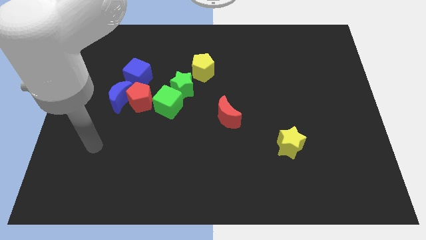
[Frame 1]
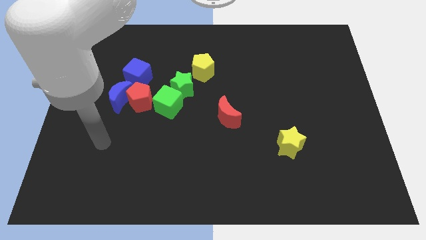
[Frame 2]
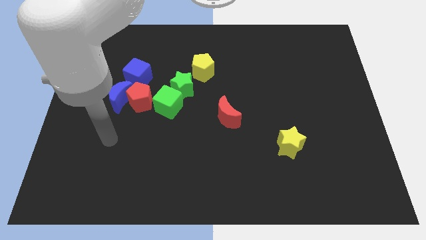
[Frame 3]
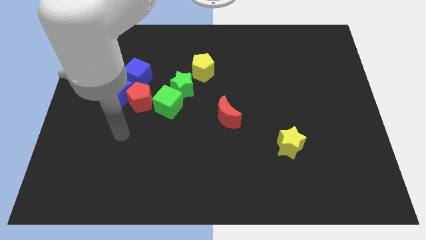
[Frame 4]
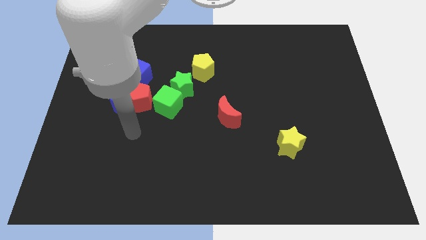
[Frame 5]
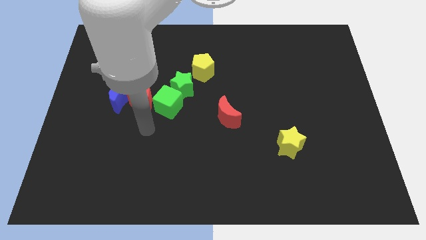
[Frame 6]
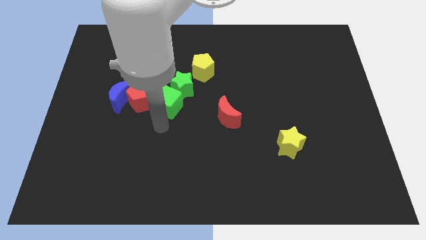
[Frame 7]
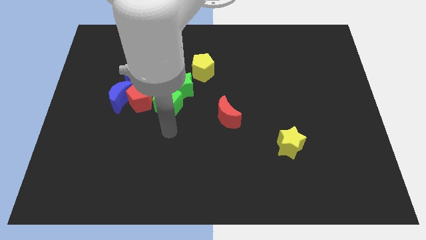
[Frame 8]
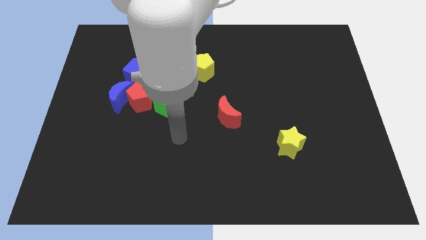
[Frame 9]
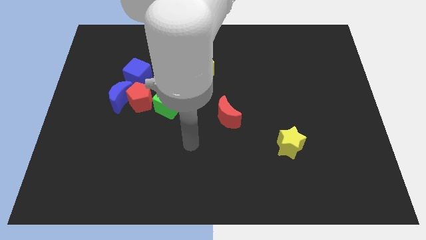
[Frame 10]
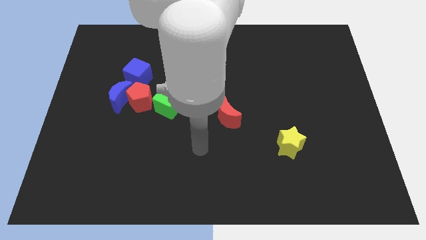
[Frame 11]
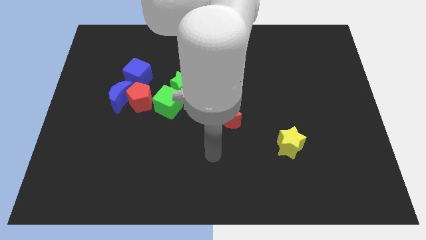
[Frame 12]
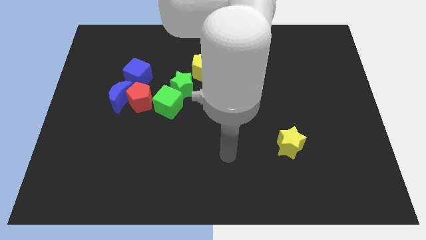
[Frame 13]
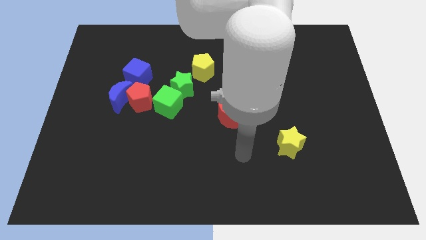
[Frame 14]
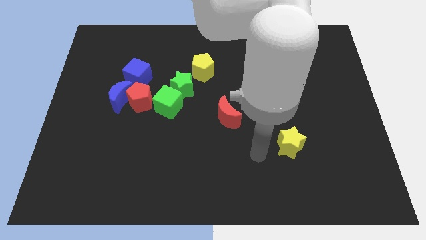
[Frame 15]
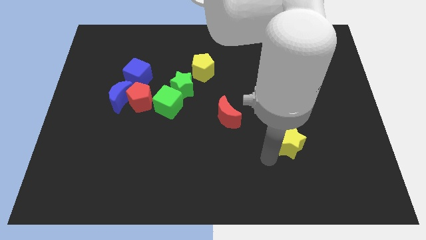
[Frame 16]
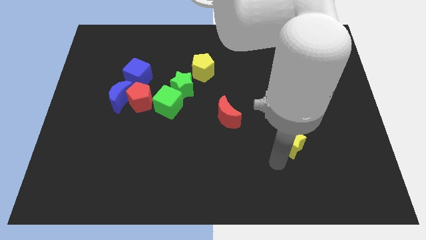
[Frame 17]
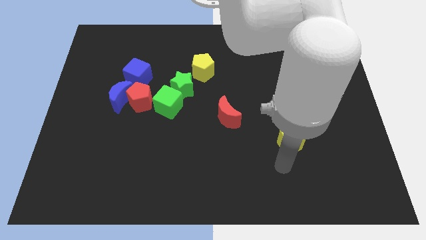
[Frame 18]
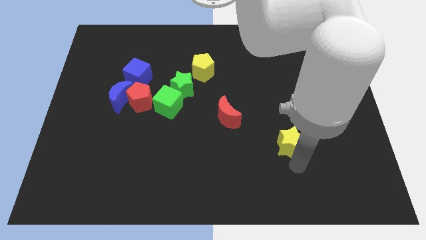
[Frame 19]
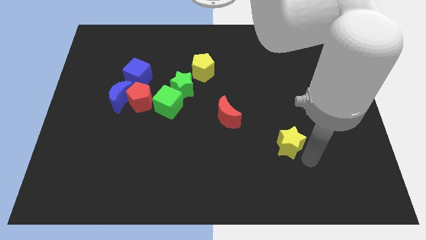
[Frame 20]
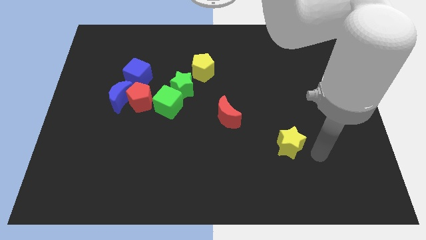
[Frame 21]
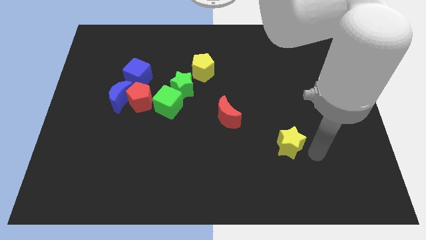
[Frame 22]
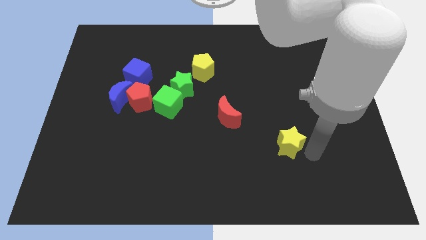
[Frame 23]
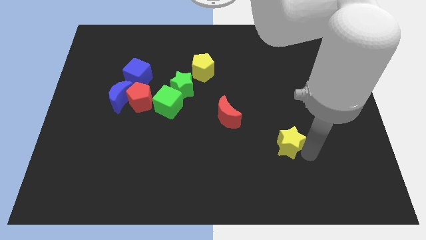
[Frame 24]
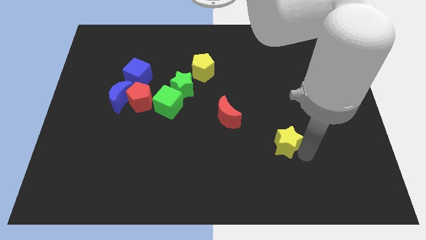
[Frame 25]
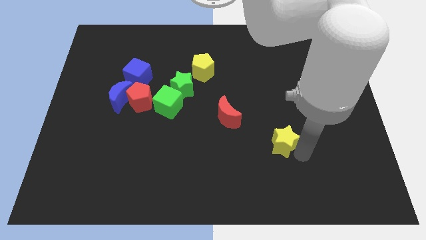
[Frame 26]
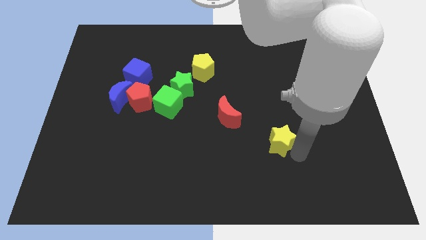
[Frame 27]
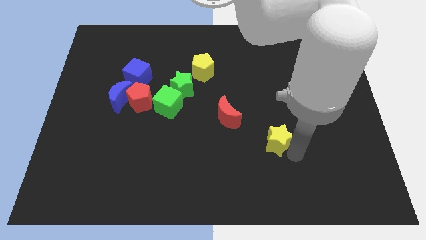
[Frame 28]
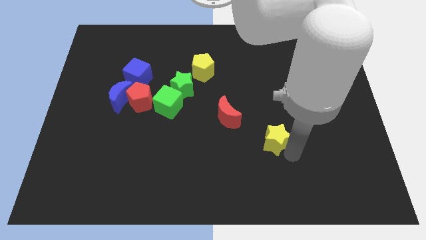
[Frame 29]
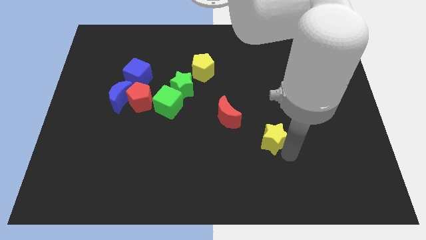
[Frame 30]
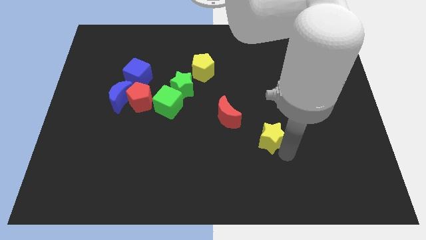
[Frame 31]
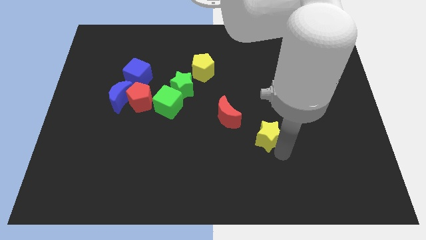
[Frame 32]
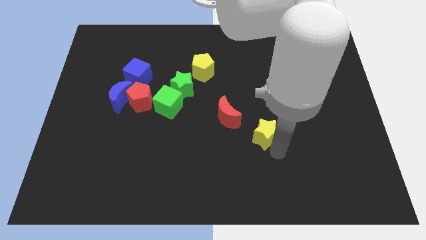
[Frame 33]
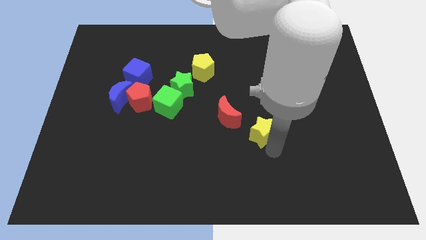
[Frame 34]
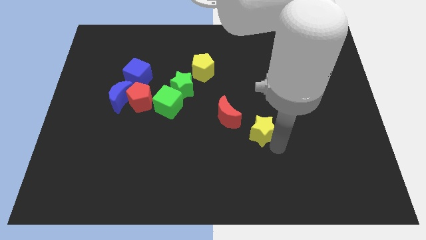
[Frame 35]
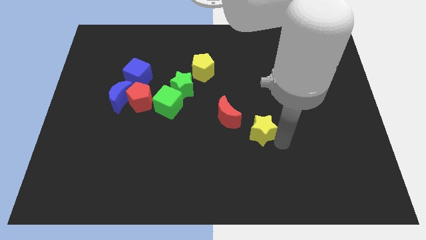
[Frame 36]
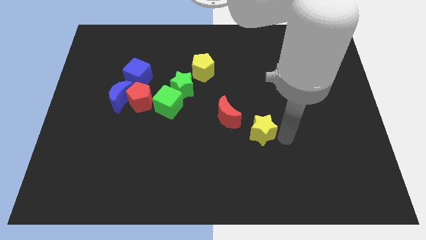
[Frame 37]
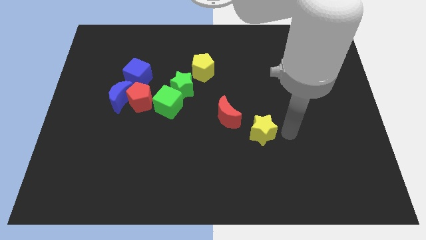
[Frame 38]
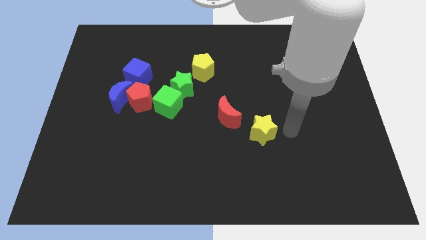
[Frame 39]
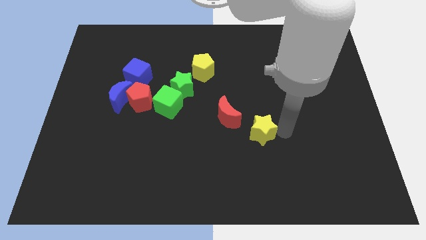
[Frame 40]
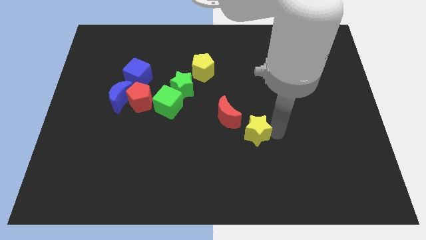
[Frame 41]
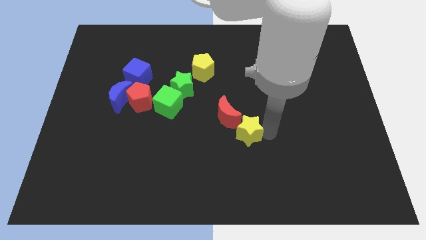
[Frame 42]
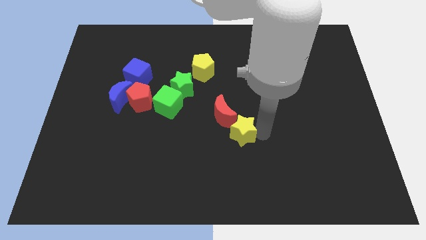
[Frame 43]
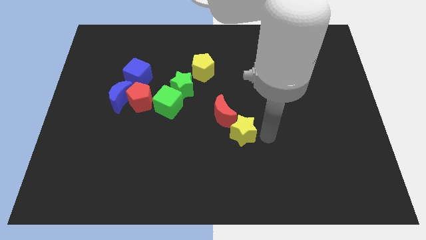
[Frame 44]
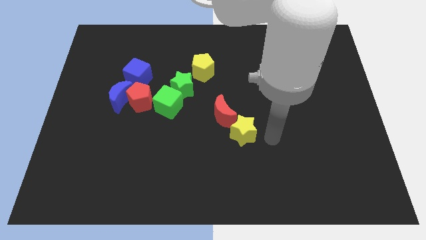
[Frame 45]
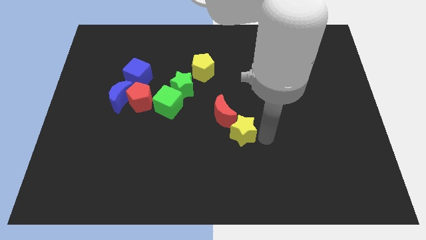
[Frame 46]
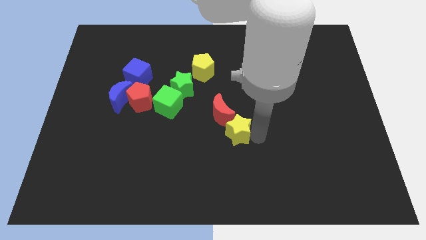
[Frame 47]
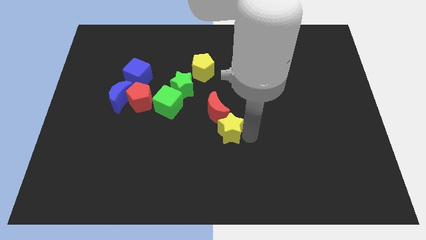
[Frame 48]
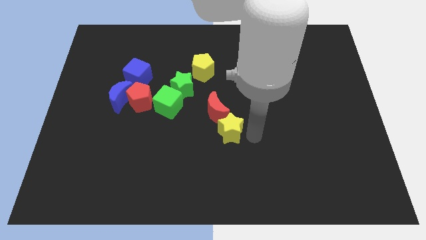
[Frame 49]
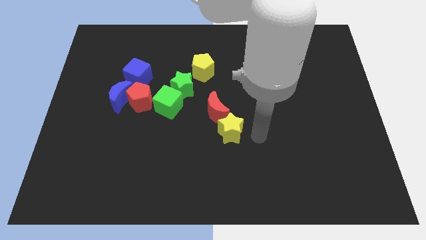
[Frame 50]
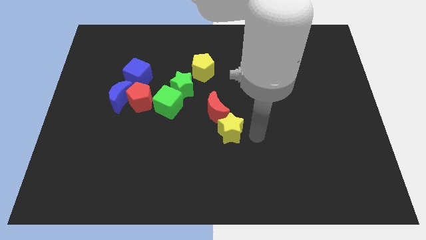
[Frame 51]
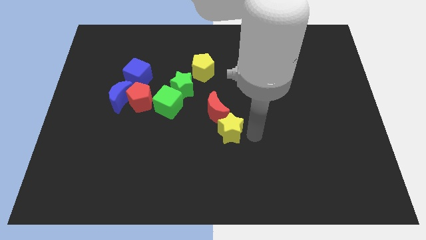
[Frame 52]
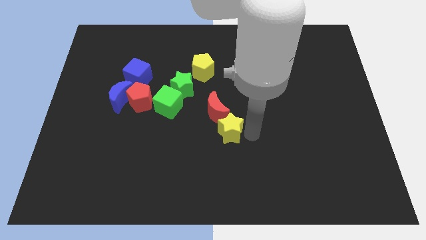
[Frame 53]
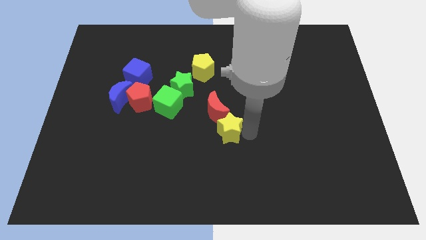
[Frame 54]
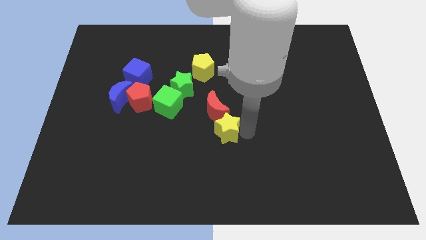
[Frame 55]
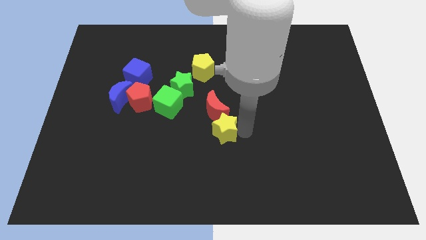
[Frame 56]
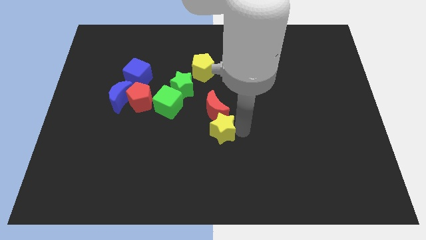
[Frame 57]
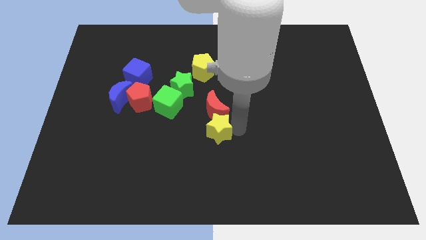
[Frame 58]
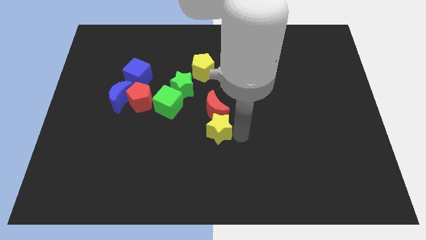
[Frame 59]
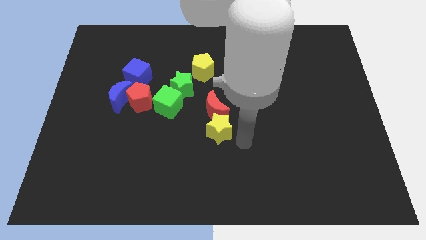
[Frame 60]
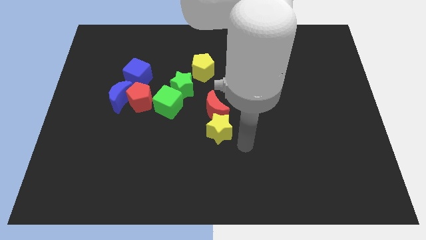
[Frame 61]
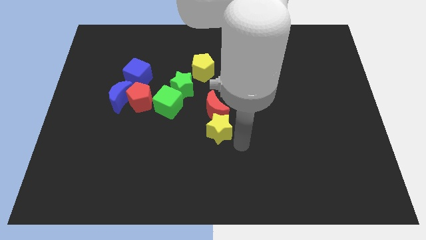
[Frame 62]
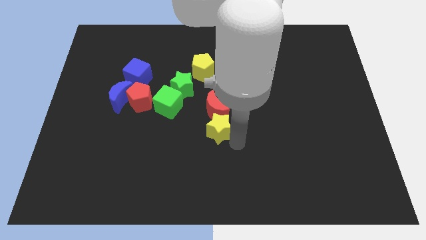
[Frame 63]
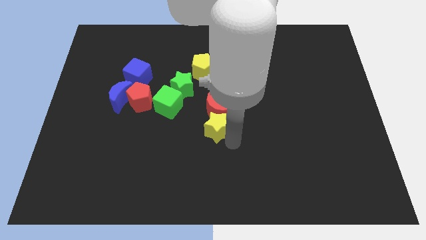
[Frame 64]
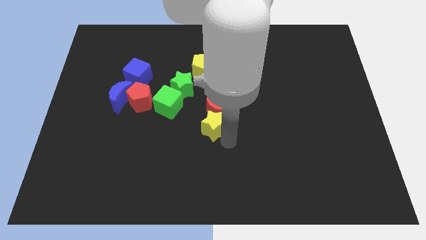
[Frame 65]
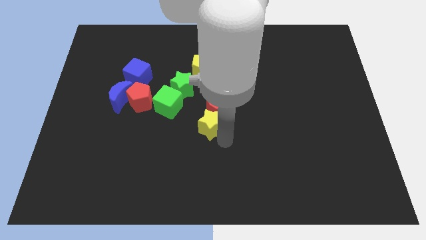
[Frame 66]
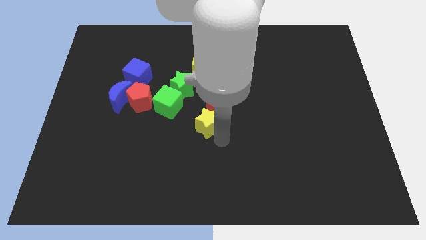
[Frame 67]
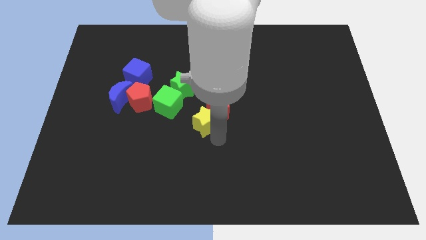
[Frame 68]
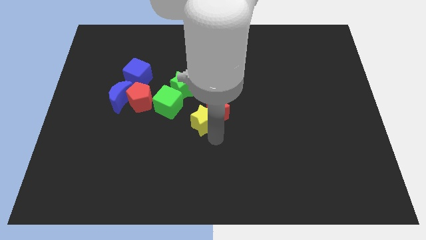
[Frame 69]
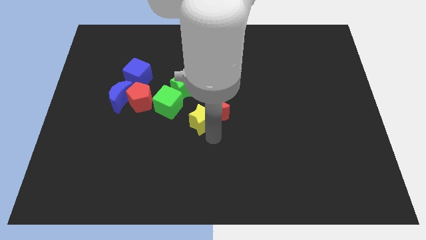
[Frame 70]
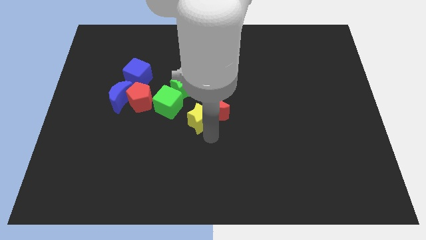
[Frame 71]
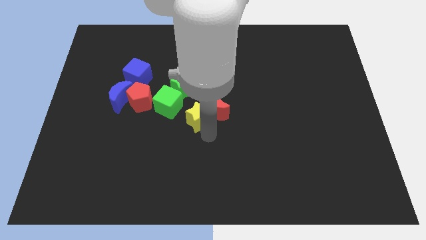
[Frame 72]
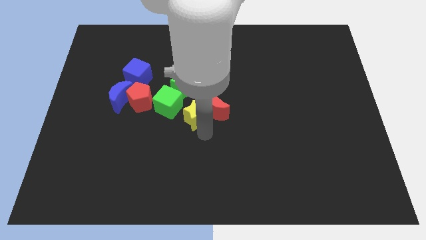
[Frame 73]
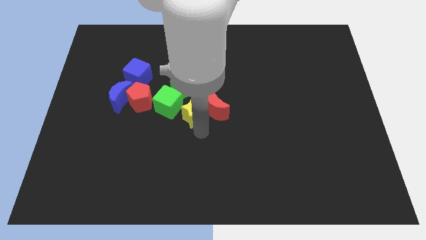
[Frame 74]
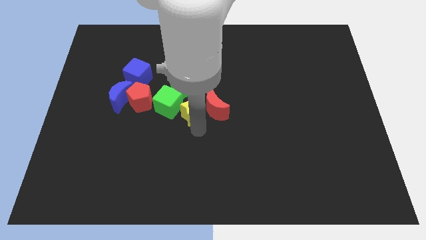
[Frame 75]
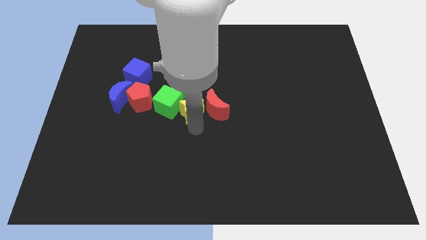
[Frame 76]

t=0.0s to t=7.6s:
push the yellow star close to the green cube
